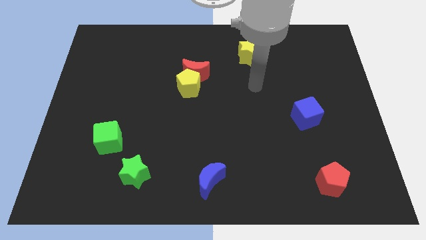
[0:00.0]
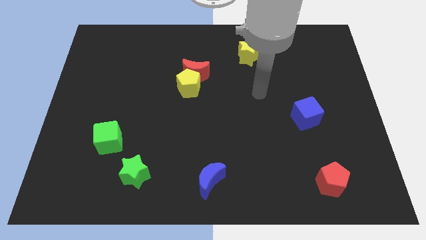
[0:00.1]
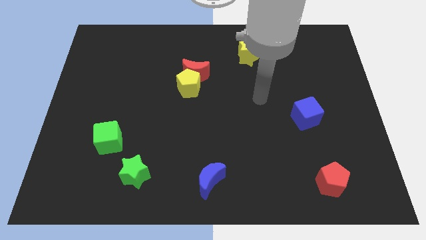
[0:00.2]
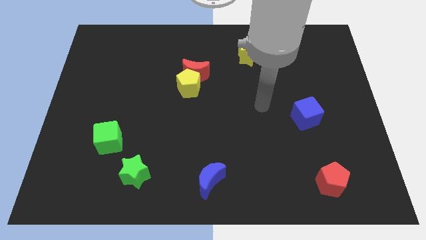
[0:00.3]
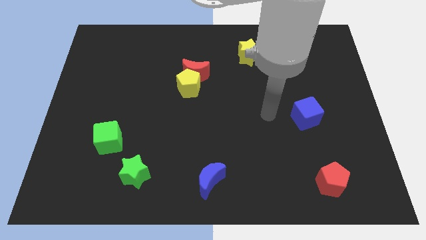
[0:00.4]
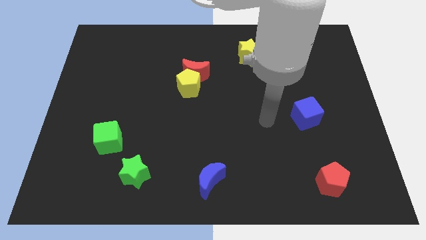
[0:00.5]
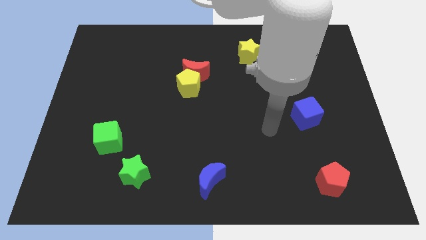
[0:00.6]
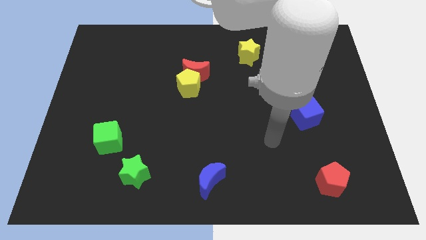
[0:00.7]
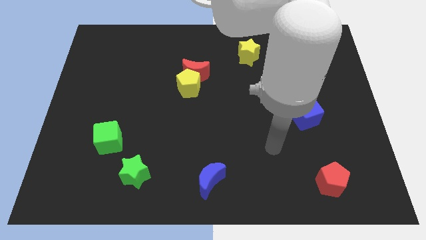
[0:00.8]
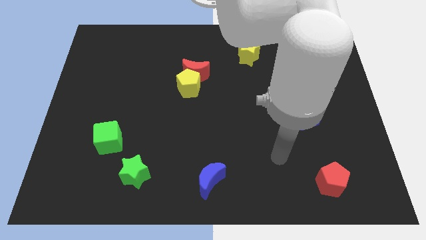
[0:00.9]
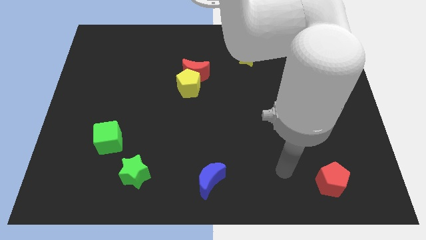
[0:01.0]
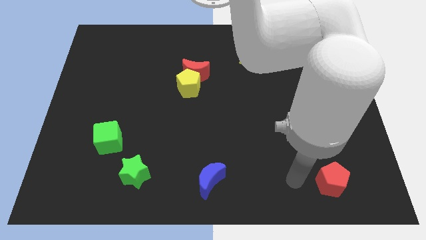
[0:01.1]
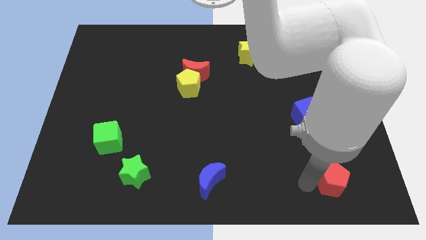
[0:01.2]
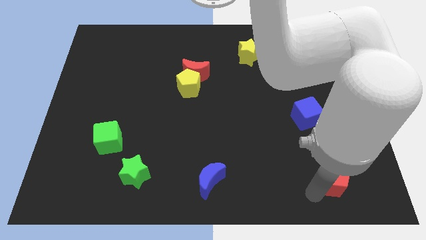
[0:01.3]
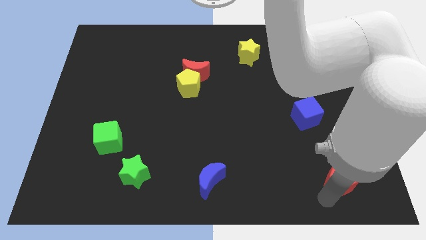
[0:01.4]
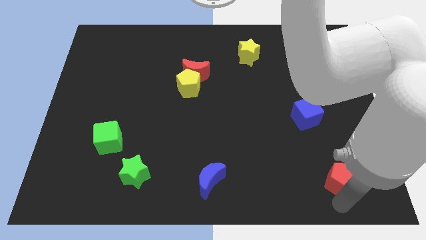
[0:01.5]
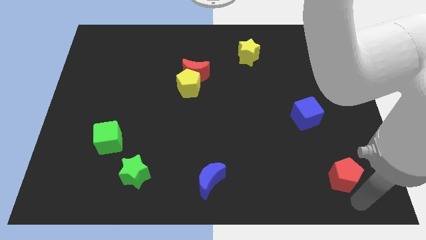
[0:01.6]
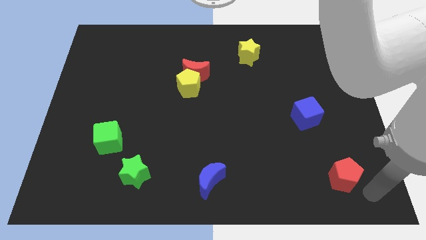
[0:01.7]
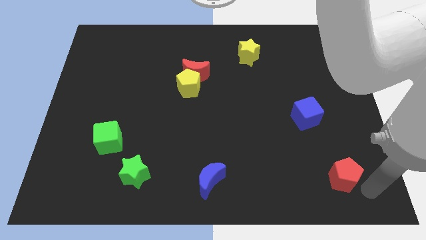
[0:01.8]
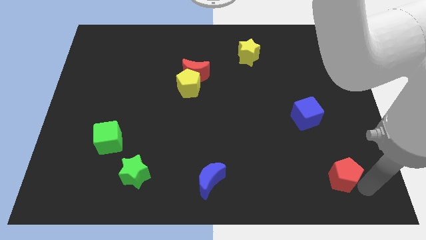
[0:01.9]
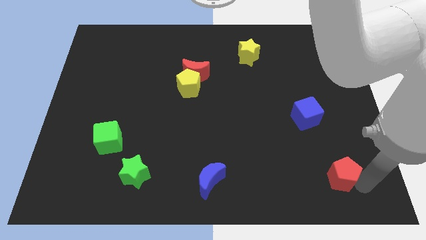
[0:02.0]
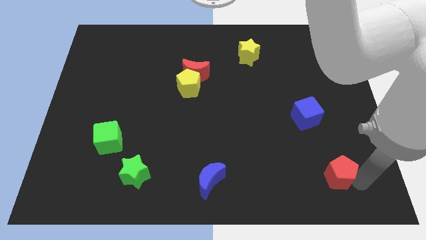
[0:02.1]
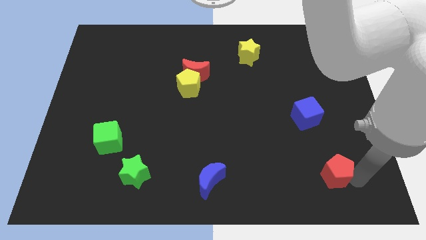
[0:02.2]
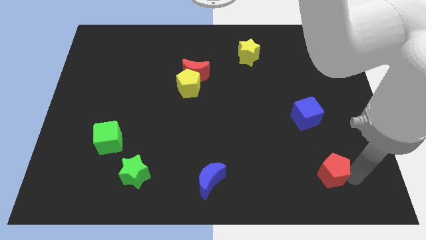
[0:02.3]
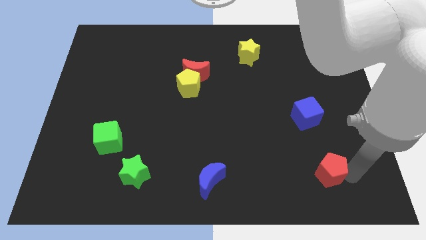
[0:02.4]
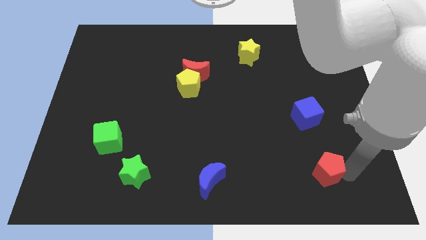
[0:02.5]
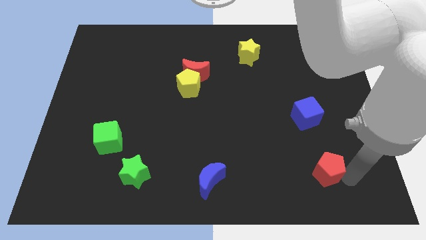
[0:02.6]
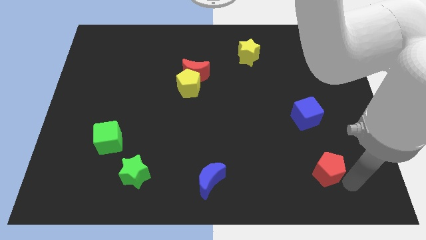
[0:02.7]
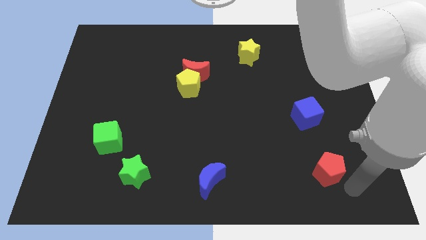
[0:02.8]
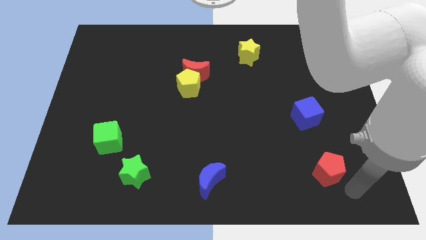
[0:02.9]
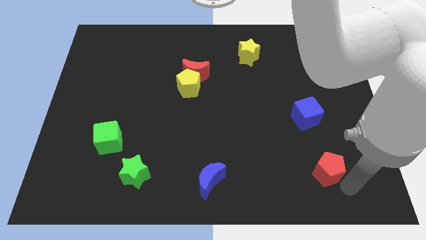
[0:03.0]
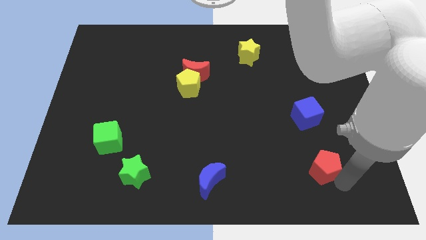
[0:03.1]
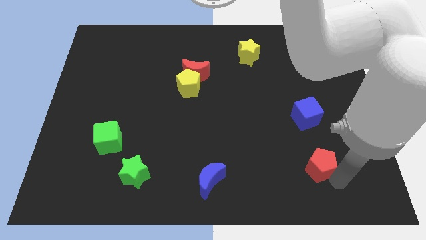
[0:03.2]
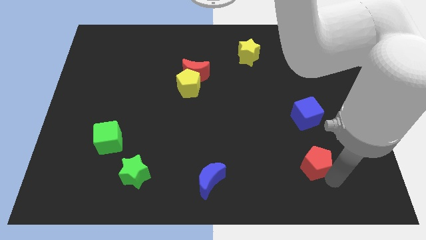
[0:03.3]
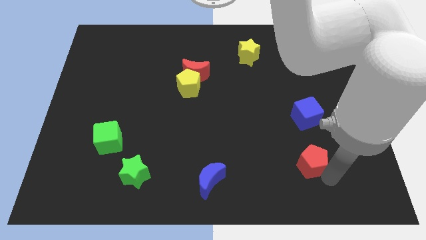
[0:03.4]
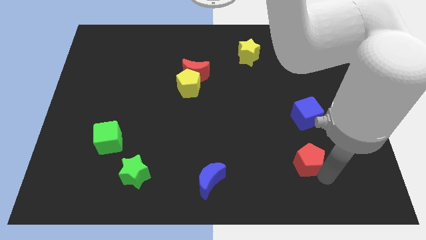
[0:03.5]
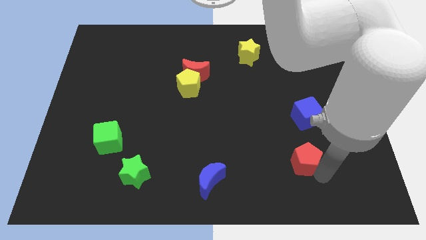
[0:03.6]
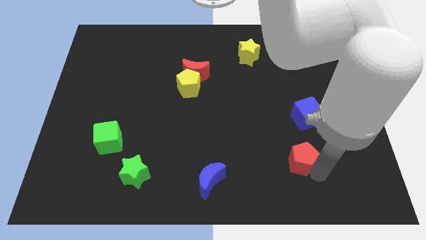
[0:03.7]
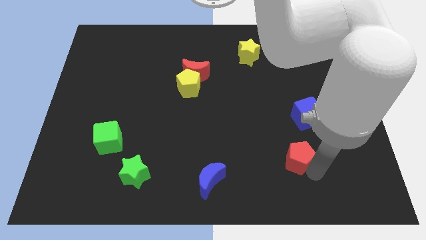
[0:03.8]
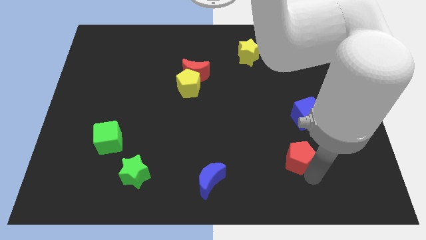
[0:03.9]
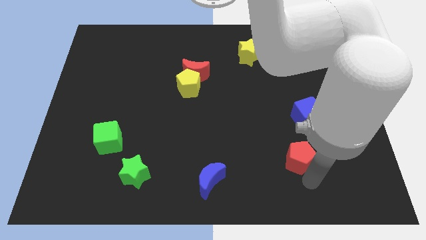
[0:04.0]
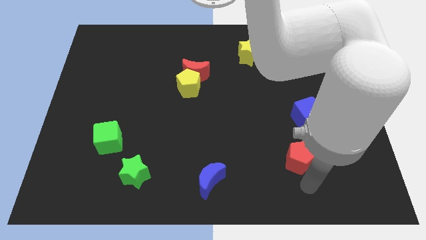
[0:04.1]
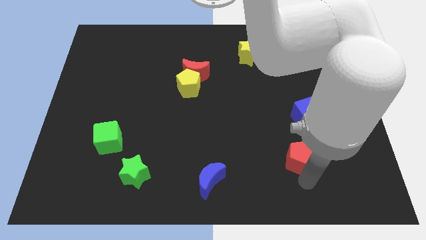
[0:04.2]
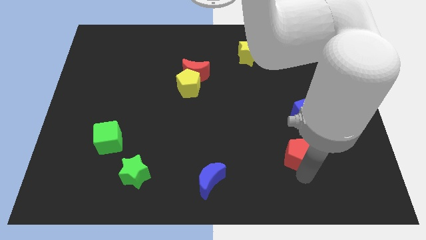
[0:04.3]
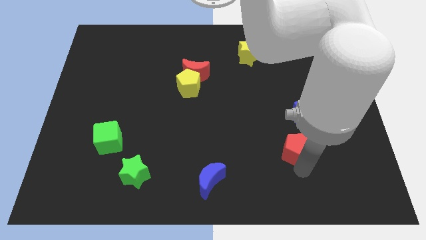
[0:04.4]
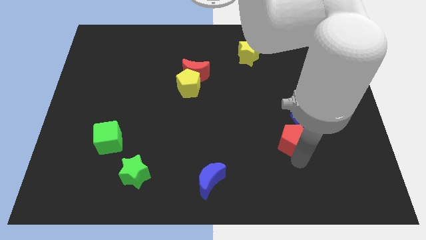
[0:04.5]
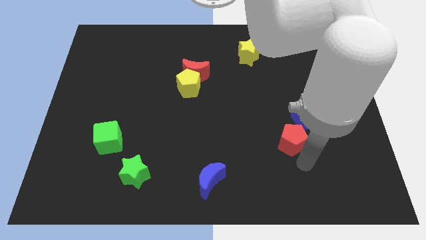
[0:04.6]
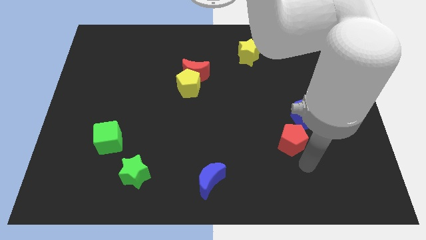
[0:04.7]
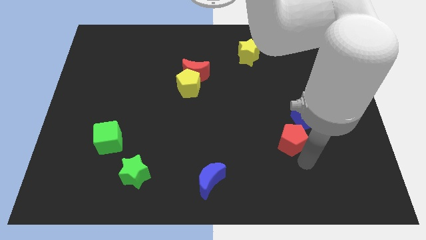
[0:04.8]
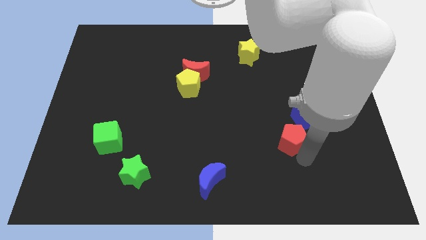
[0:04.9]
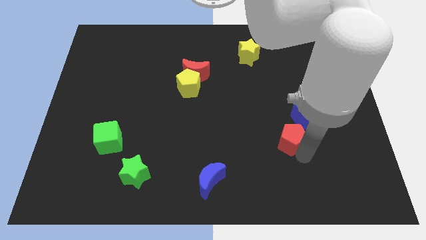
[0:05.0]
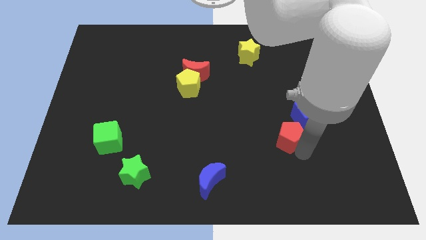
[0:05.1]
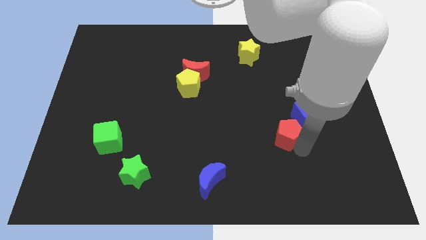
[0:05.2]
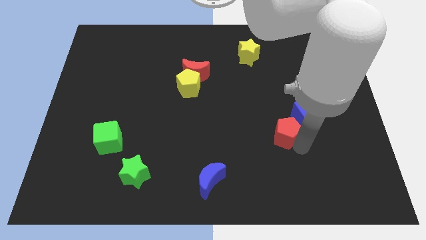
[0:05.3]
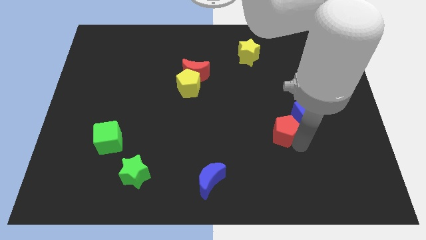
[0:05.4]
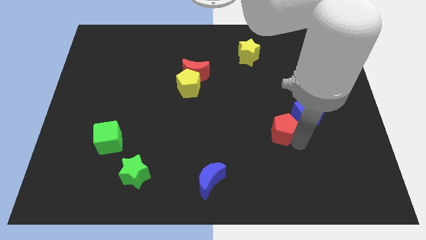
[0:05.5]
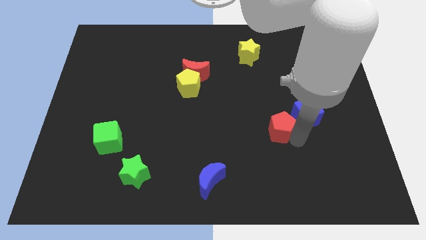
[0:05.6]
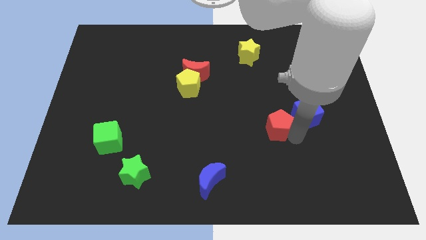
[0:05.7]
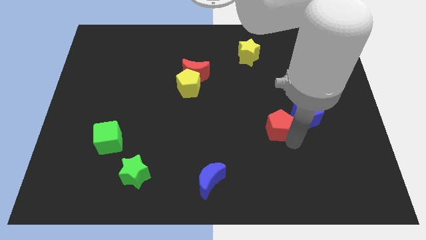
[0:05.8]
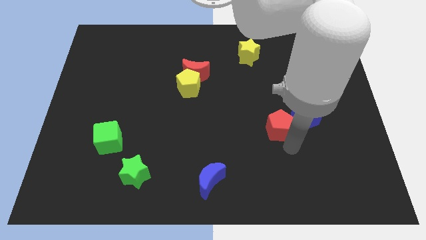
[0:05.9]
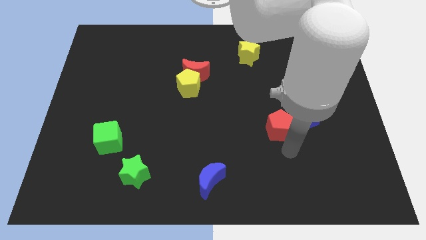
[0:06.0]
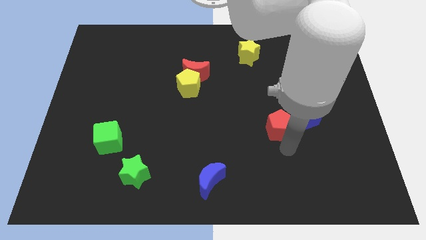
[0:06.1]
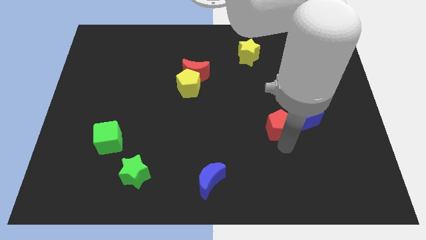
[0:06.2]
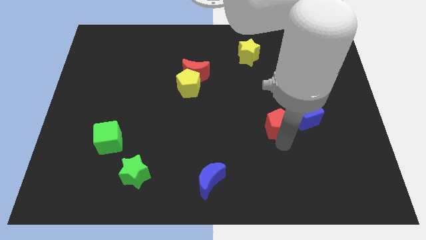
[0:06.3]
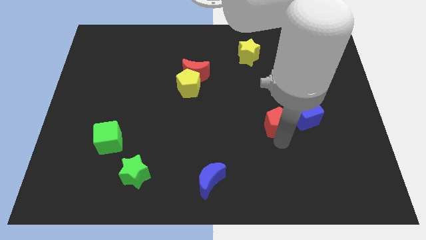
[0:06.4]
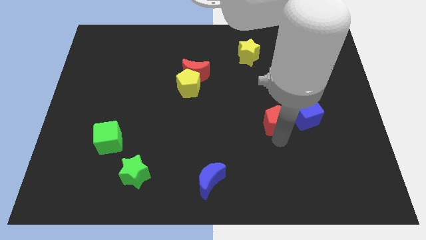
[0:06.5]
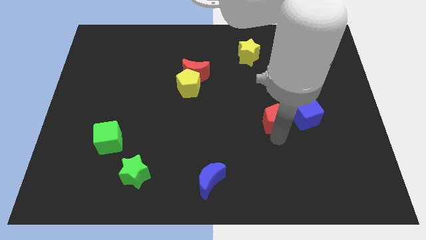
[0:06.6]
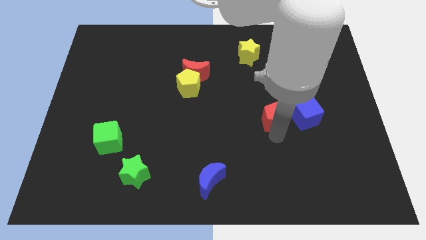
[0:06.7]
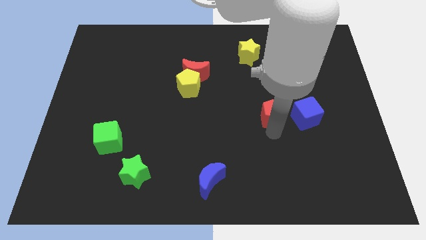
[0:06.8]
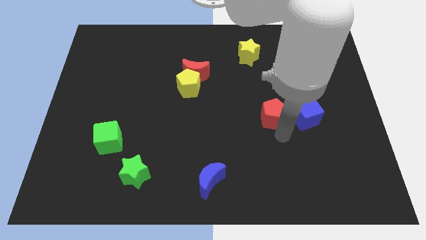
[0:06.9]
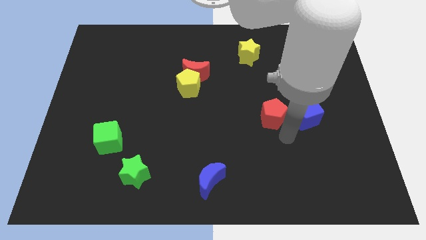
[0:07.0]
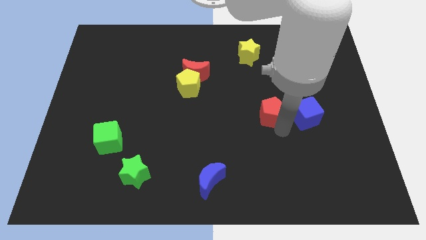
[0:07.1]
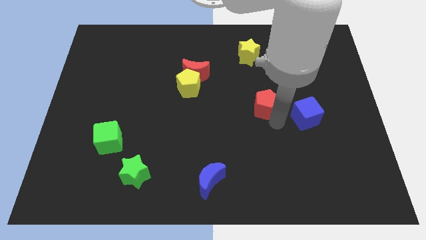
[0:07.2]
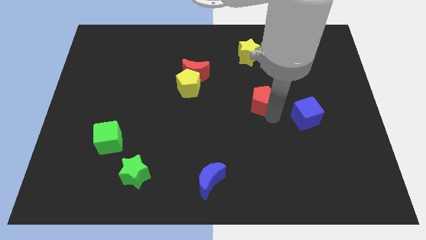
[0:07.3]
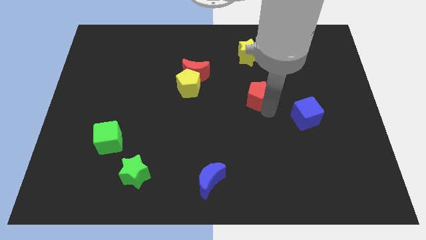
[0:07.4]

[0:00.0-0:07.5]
slide the red pentagon below the yellow star

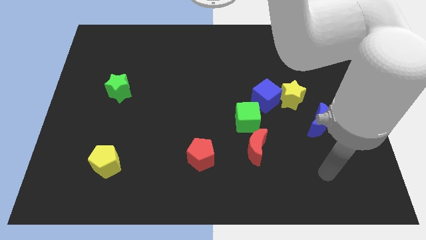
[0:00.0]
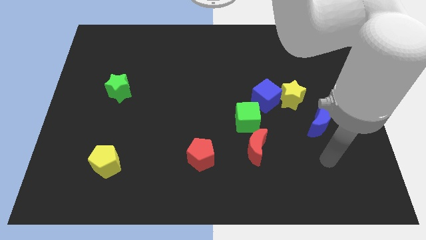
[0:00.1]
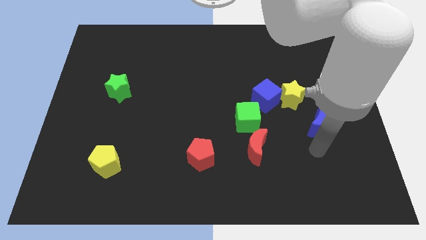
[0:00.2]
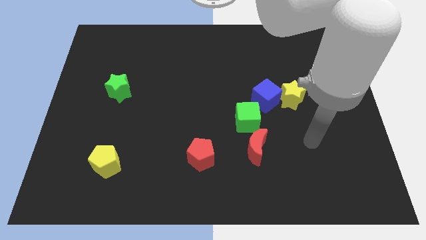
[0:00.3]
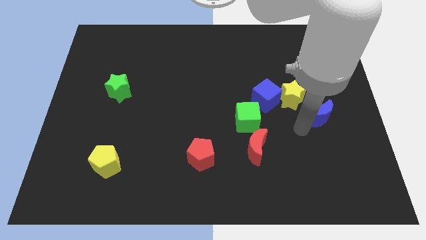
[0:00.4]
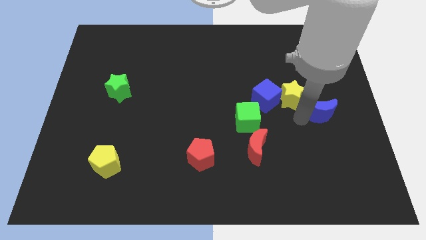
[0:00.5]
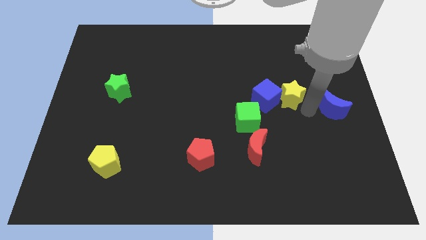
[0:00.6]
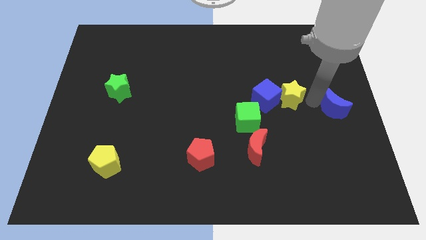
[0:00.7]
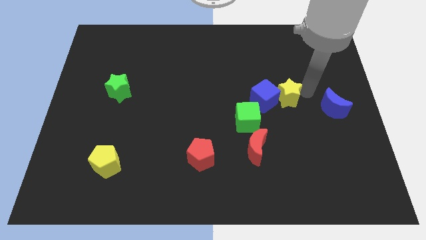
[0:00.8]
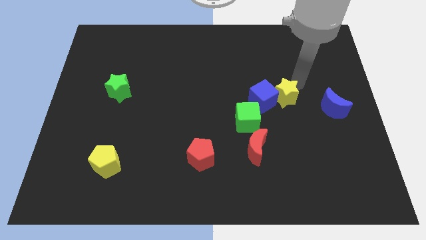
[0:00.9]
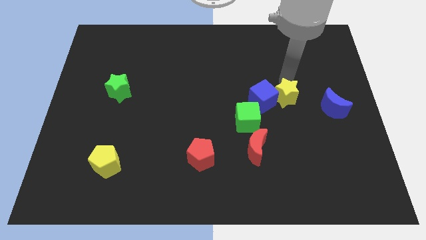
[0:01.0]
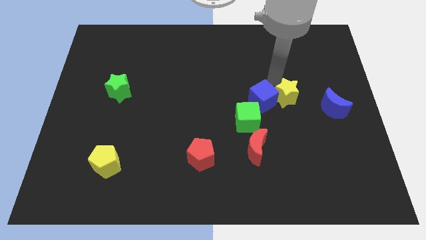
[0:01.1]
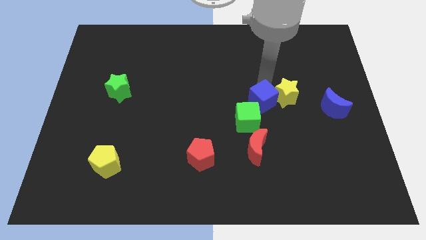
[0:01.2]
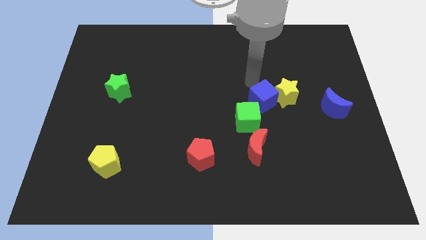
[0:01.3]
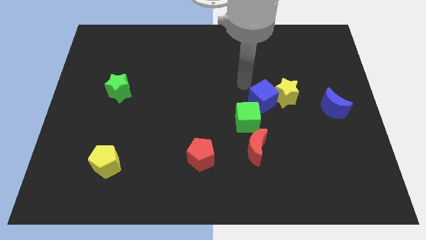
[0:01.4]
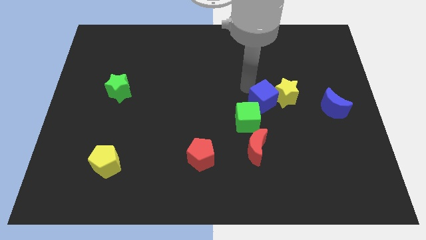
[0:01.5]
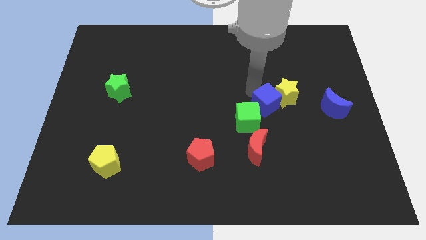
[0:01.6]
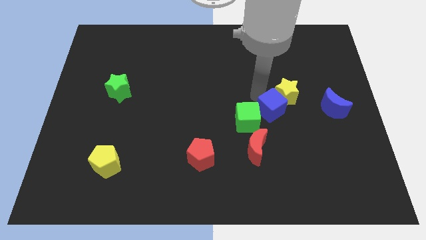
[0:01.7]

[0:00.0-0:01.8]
move the blue cube to the bottom of the yellow star
